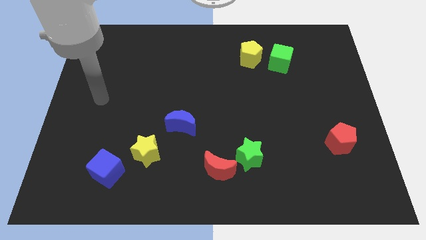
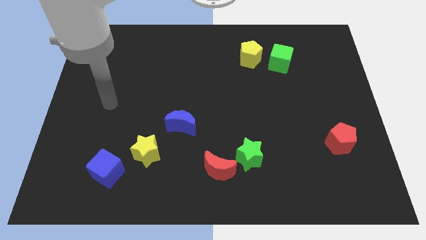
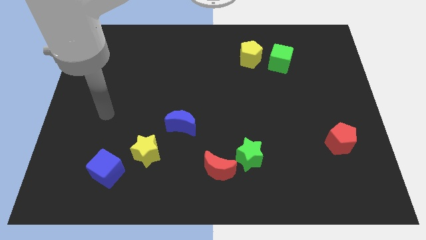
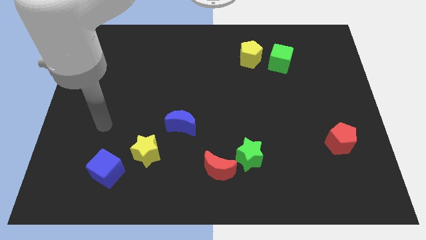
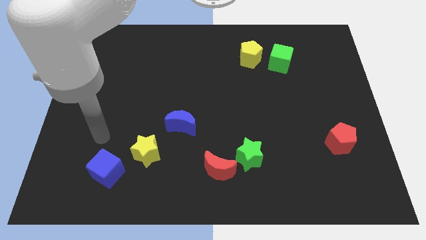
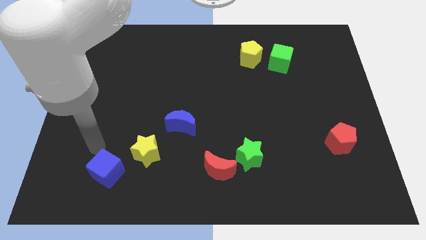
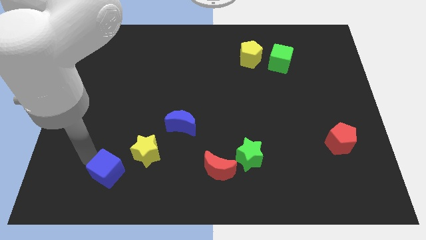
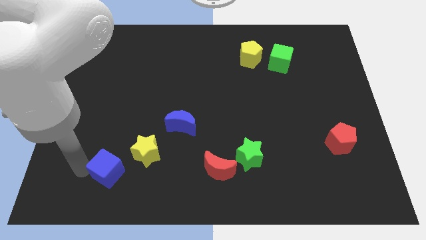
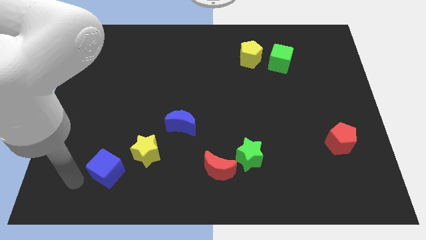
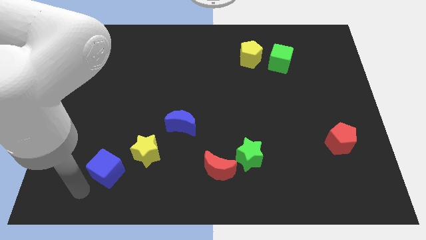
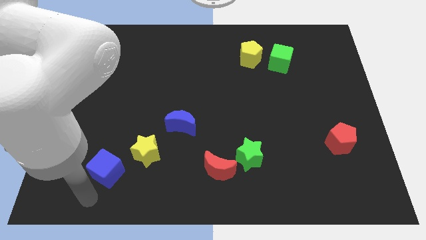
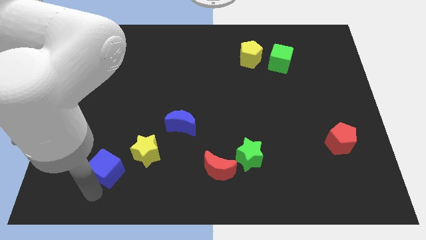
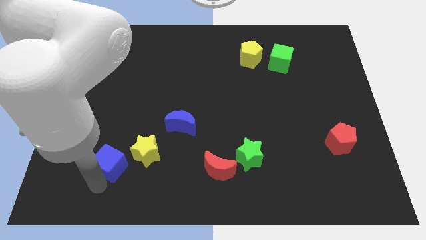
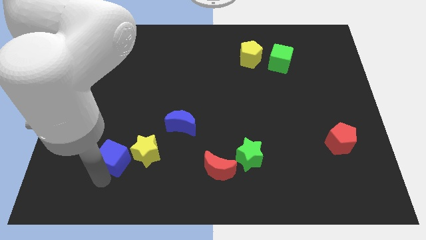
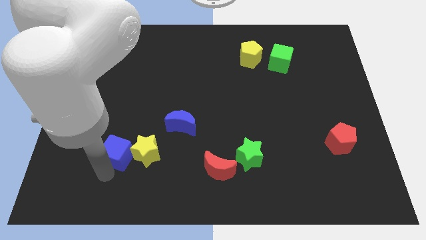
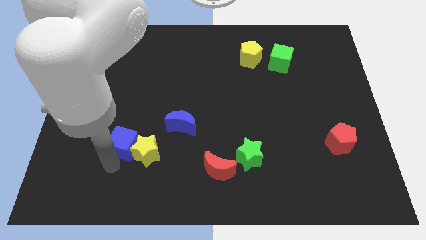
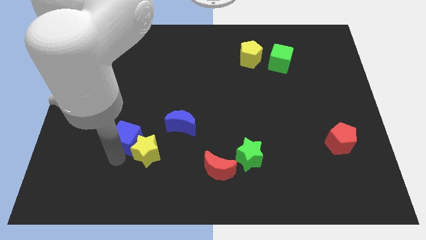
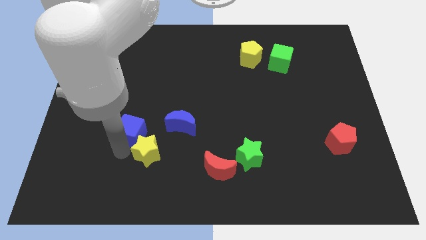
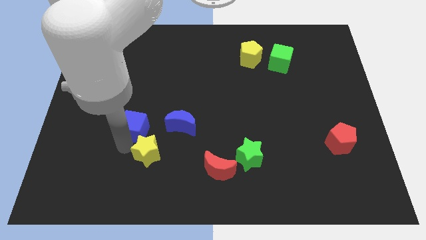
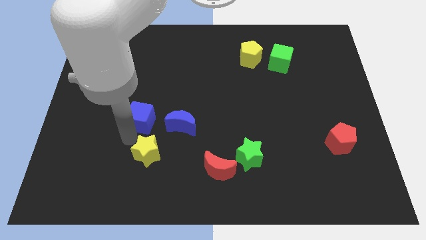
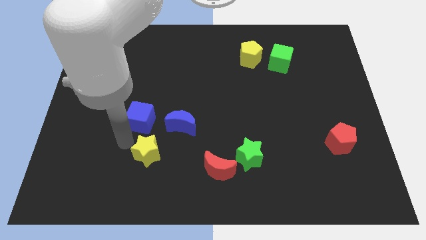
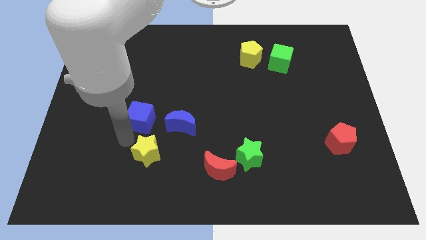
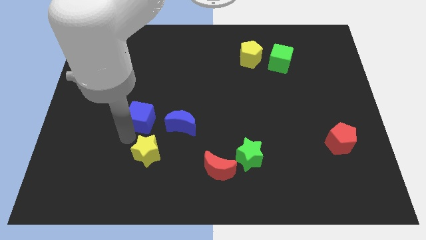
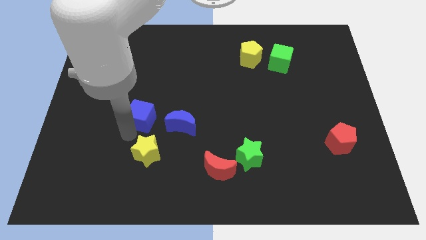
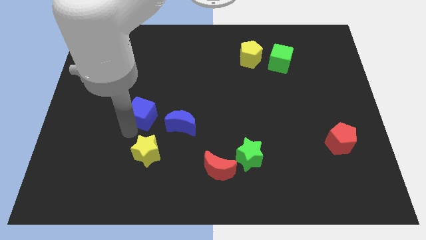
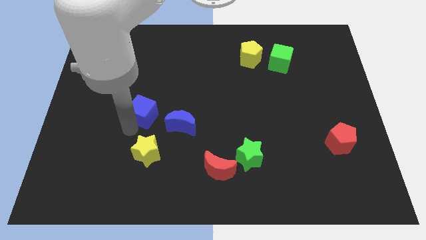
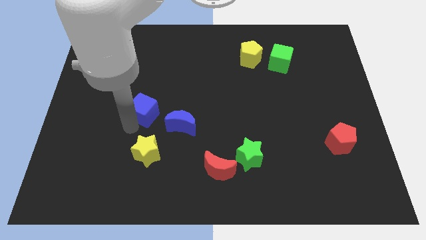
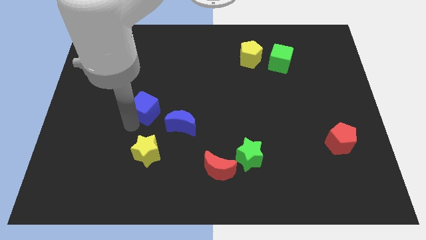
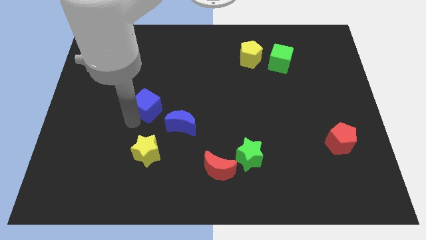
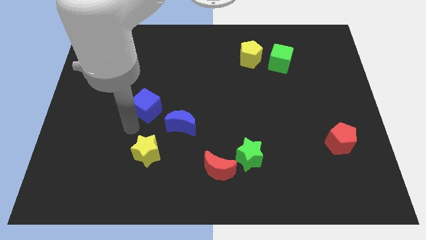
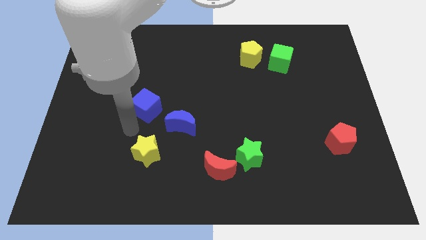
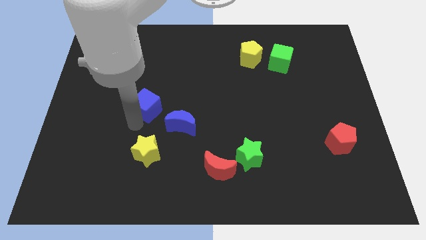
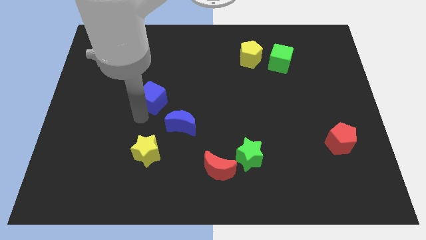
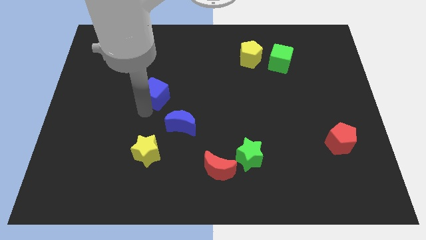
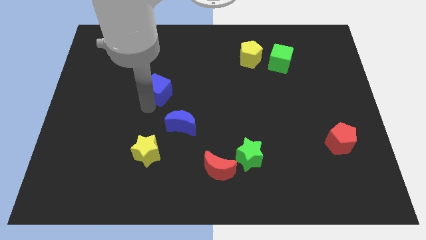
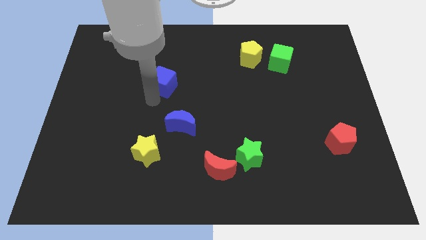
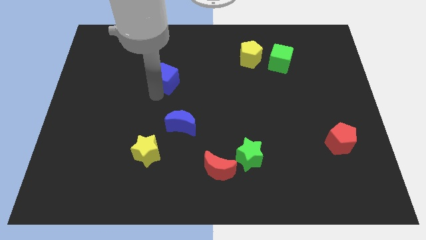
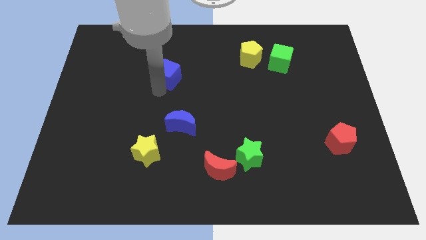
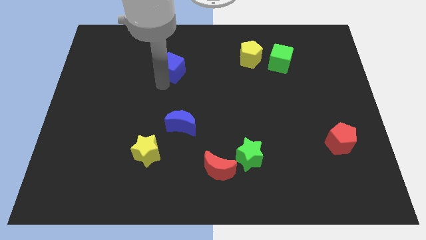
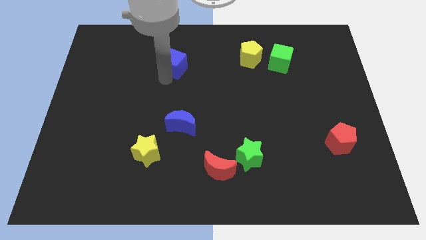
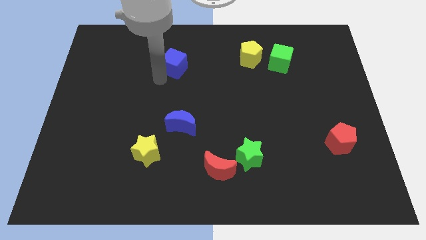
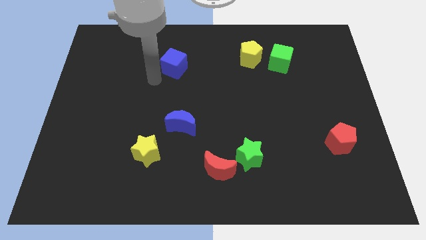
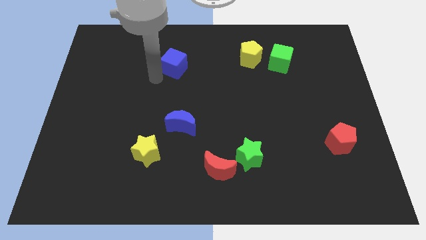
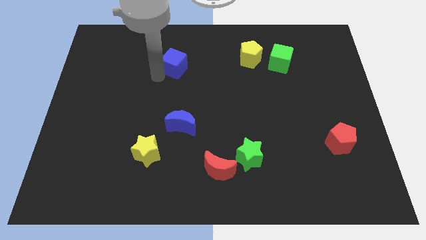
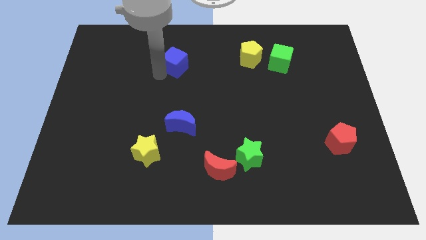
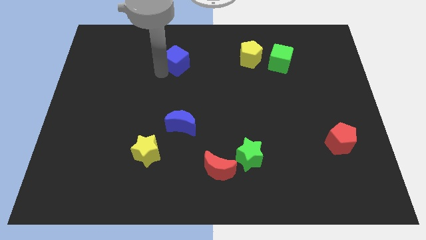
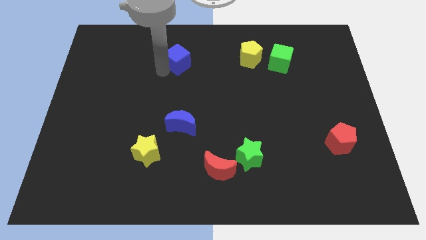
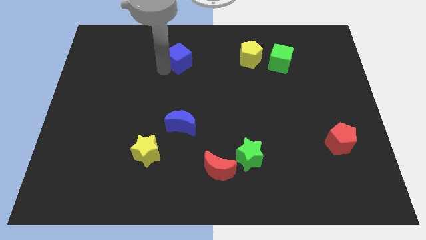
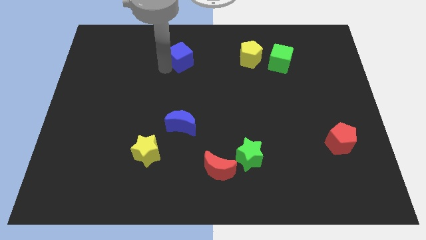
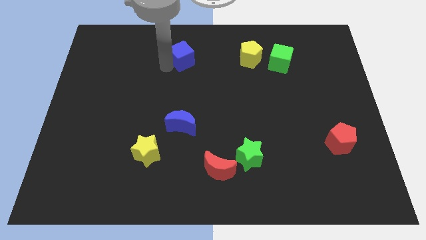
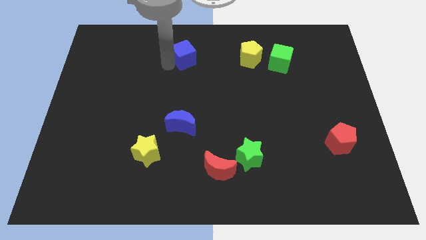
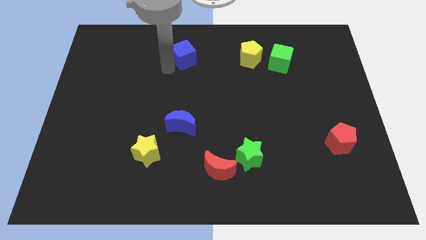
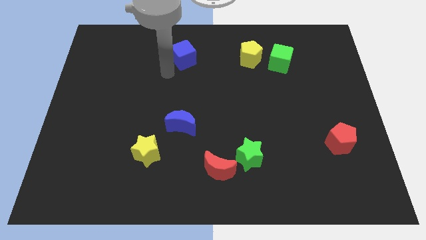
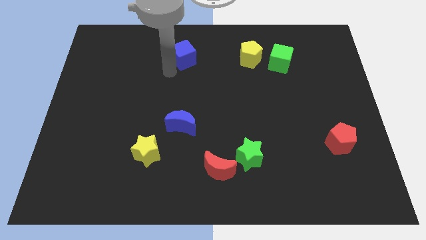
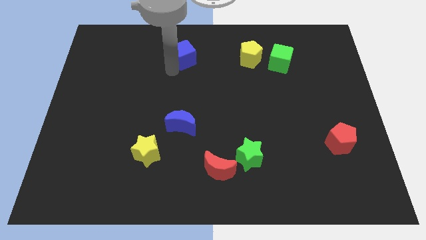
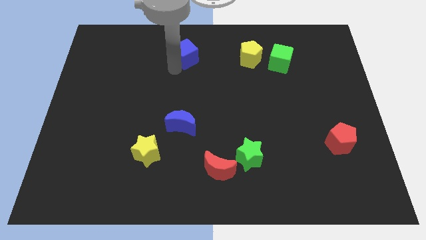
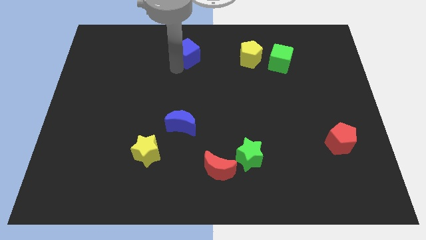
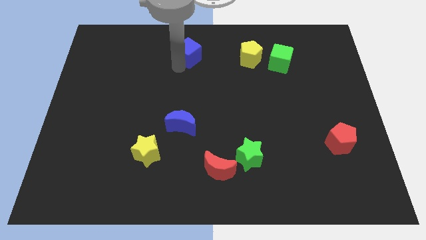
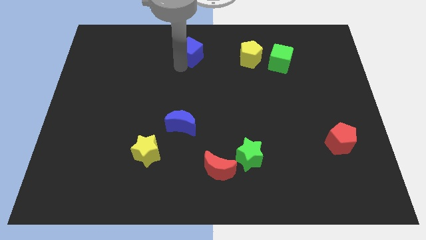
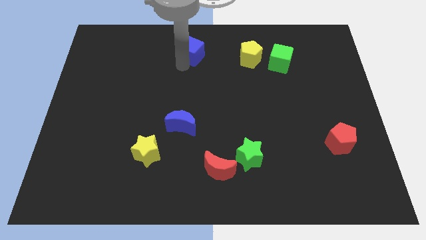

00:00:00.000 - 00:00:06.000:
slide the blue cube to the top side

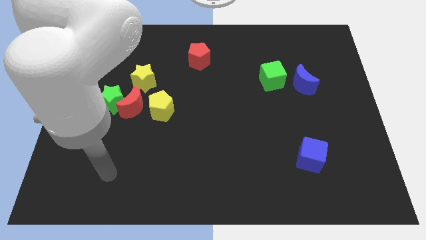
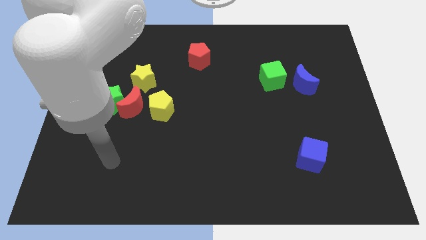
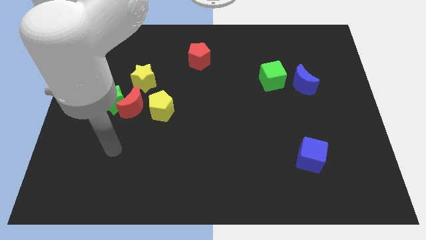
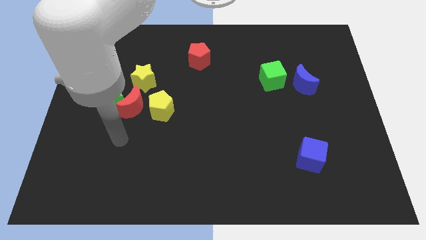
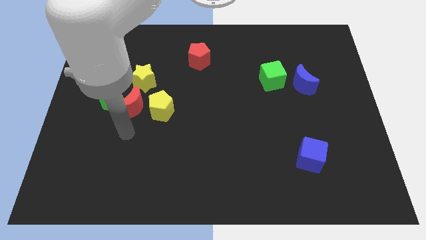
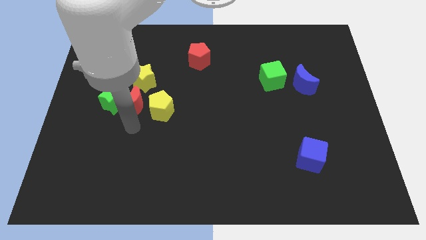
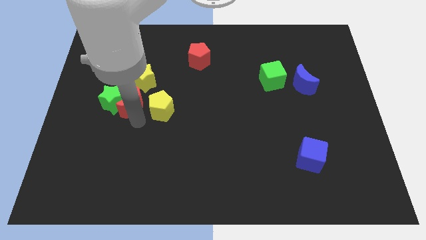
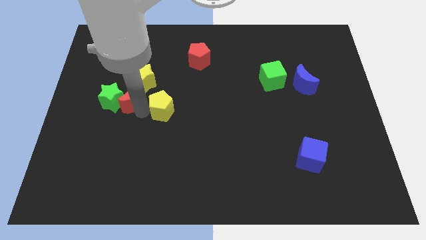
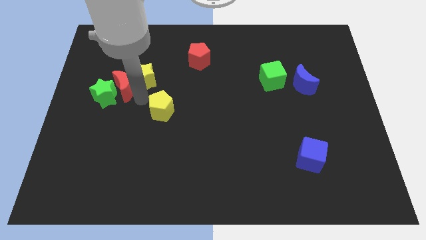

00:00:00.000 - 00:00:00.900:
move the green star to the center left
